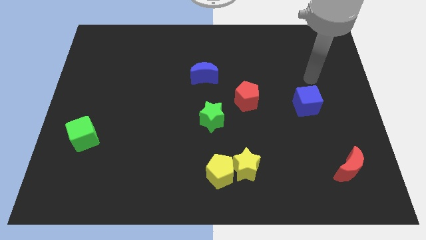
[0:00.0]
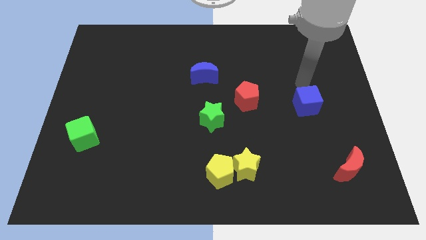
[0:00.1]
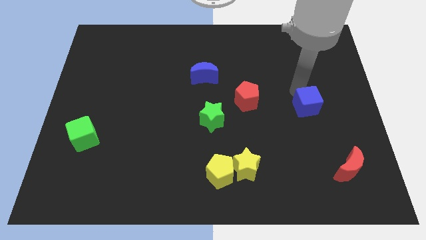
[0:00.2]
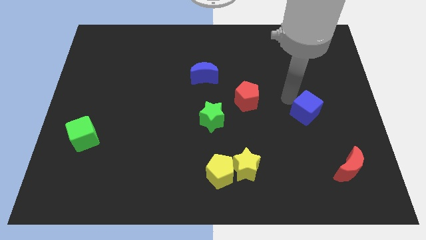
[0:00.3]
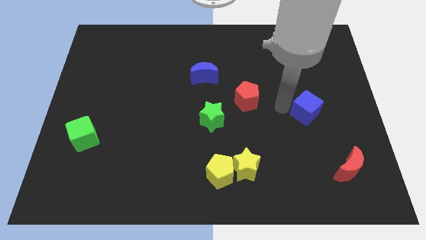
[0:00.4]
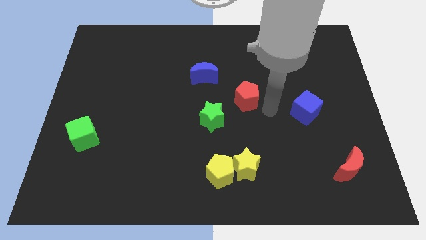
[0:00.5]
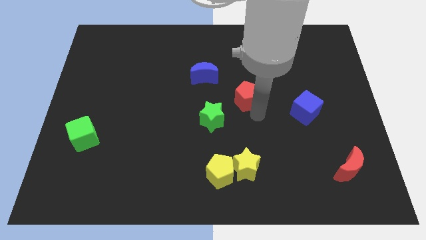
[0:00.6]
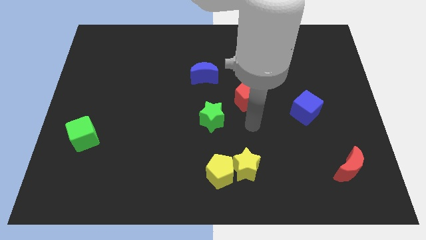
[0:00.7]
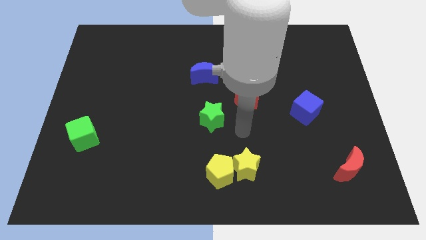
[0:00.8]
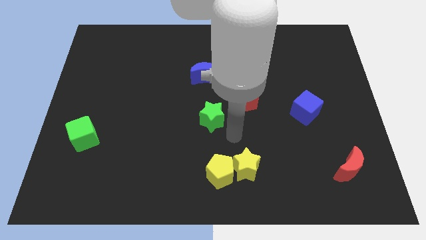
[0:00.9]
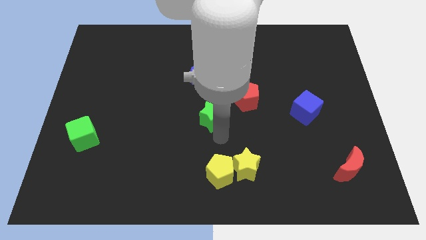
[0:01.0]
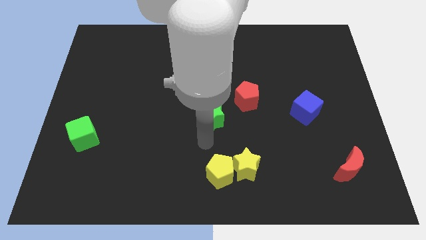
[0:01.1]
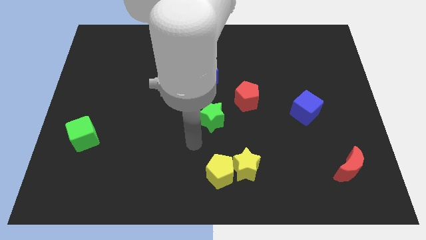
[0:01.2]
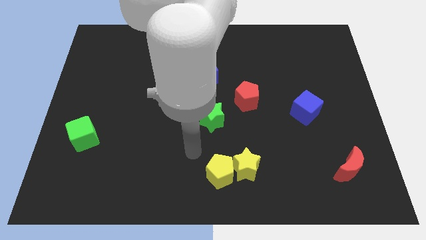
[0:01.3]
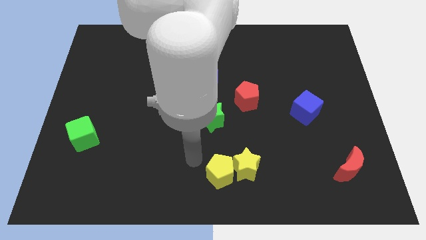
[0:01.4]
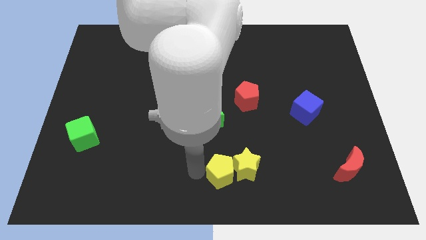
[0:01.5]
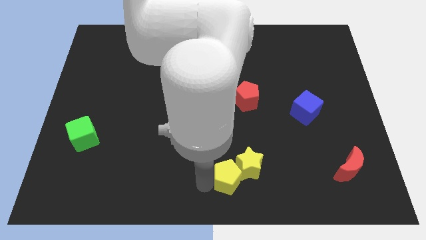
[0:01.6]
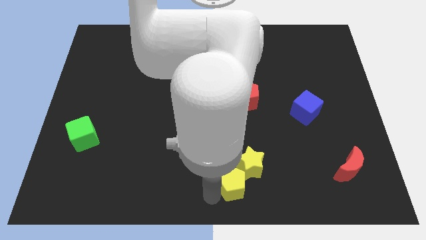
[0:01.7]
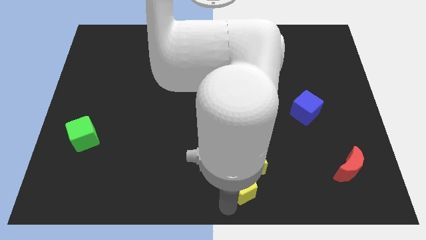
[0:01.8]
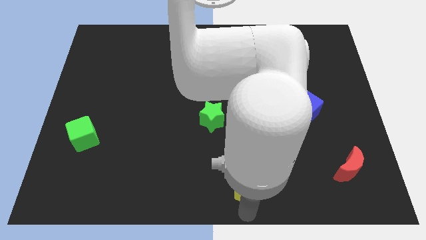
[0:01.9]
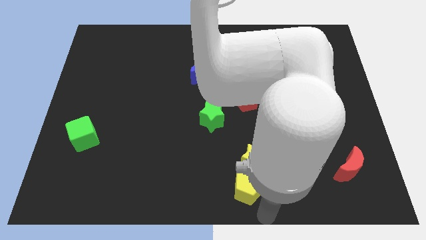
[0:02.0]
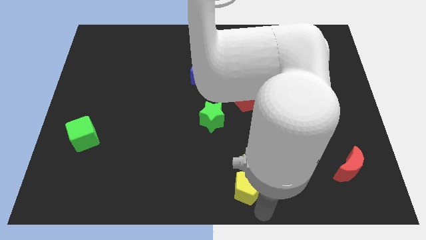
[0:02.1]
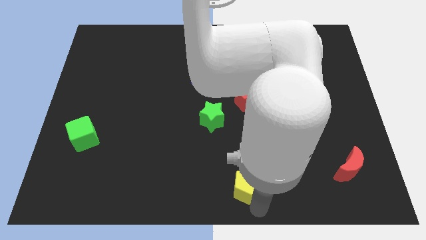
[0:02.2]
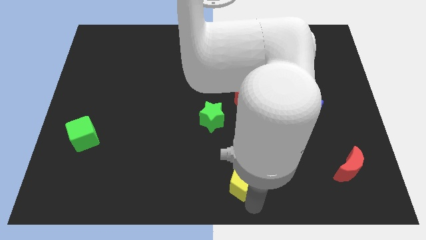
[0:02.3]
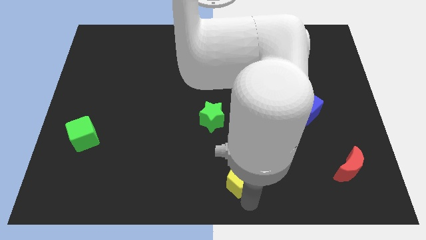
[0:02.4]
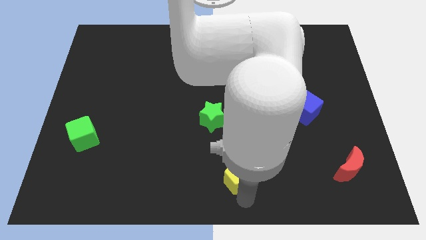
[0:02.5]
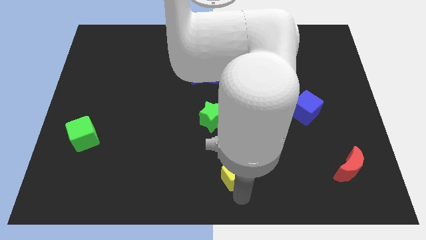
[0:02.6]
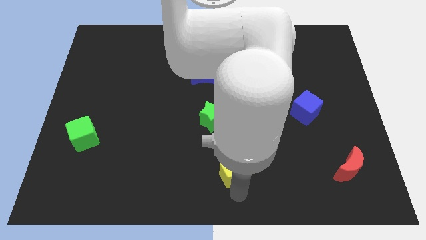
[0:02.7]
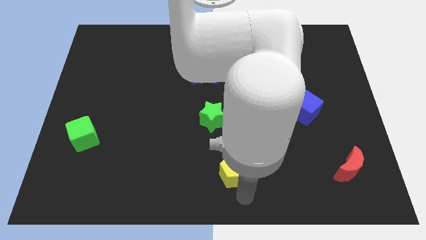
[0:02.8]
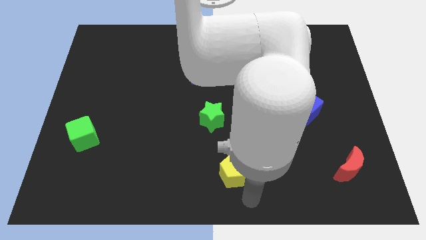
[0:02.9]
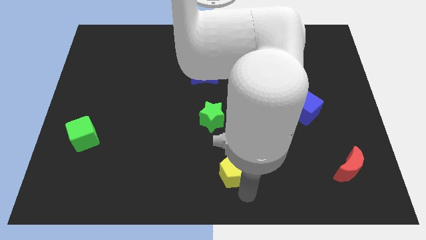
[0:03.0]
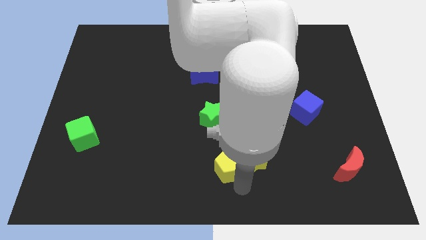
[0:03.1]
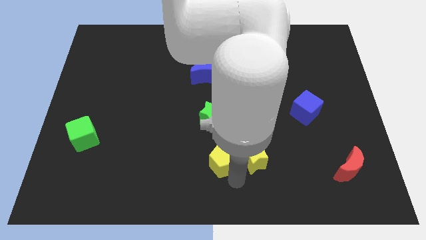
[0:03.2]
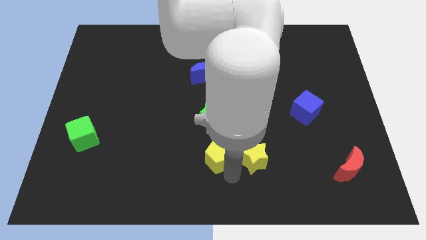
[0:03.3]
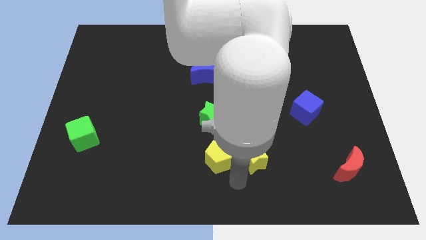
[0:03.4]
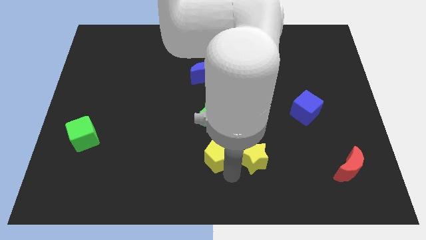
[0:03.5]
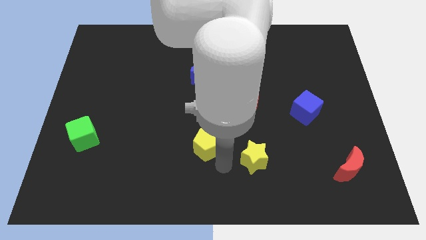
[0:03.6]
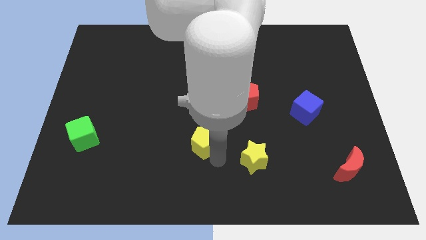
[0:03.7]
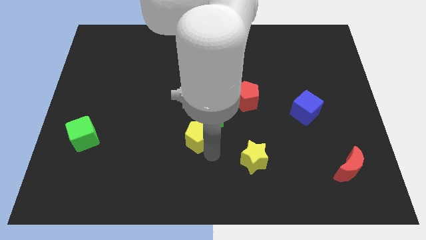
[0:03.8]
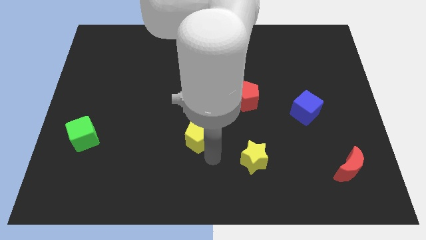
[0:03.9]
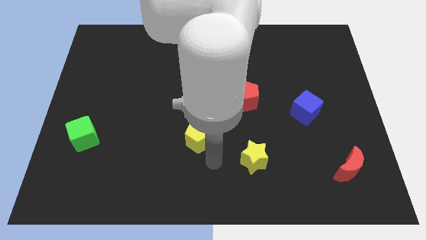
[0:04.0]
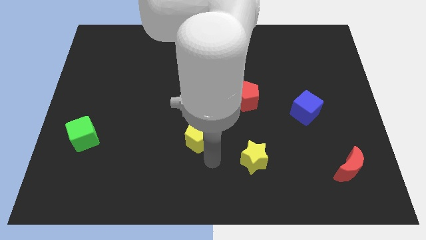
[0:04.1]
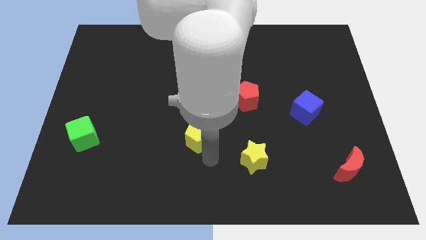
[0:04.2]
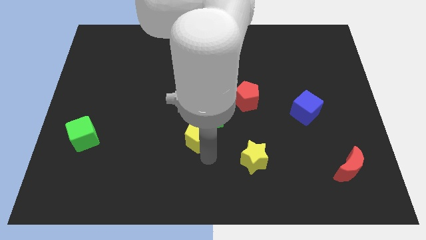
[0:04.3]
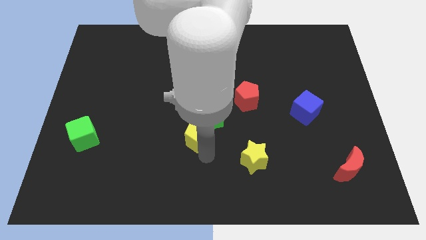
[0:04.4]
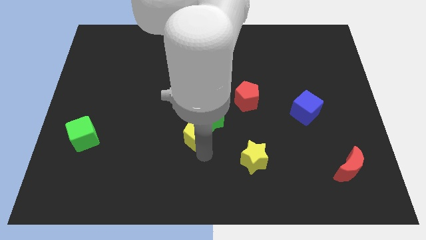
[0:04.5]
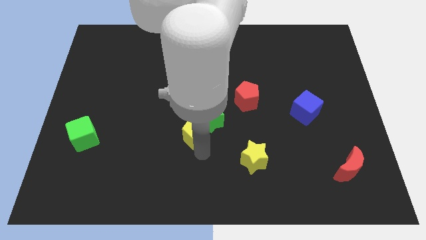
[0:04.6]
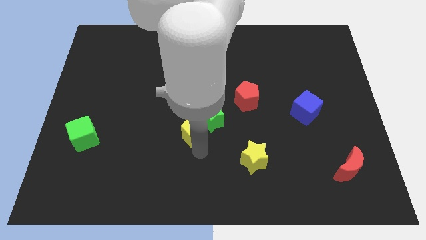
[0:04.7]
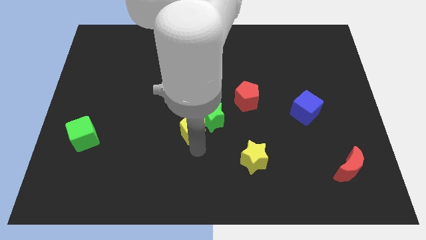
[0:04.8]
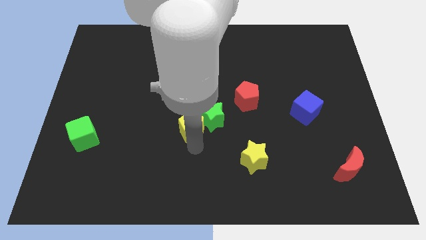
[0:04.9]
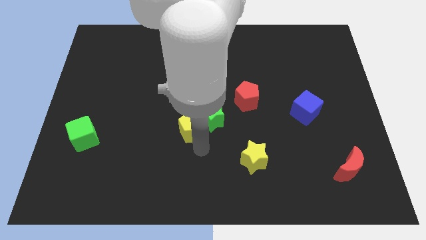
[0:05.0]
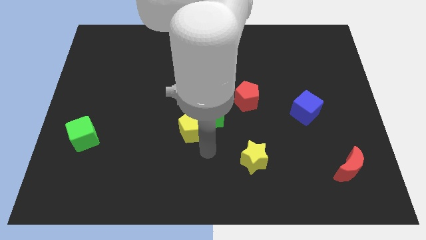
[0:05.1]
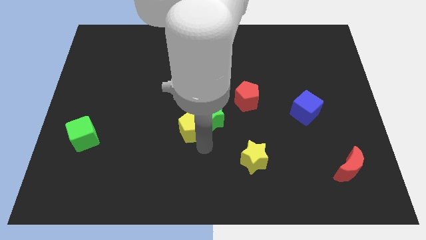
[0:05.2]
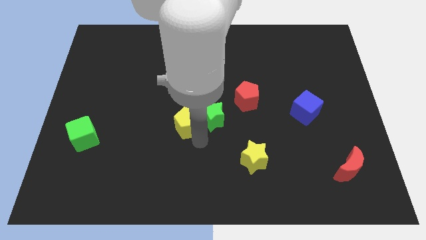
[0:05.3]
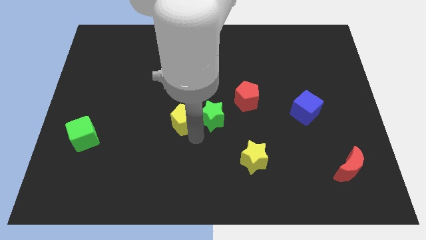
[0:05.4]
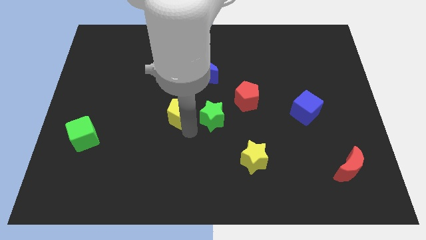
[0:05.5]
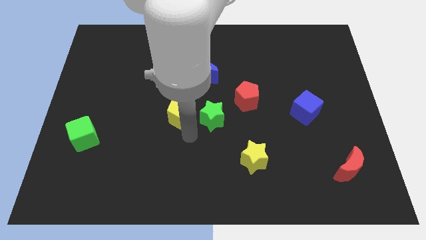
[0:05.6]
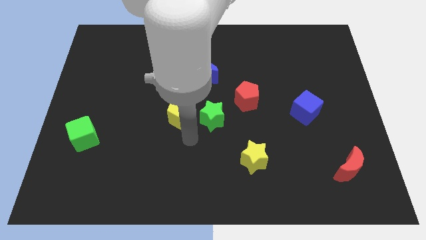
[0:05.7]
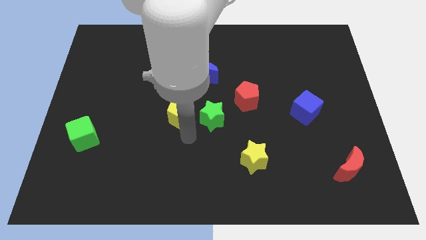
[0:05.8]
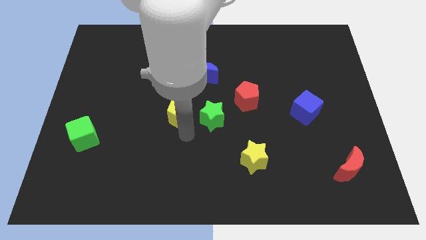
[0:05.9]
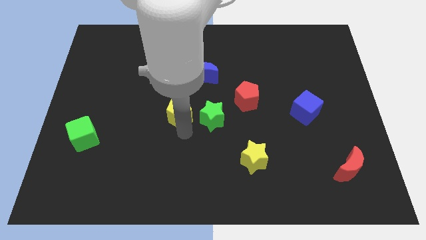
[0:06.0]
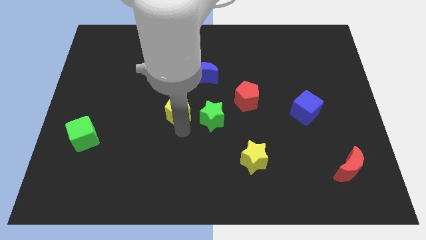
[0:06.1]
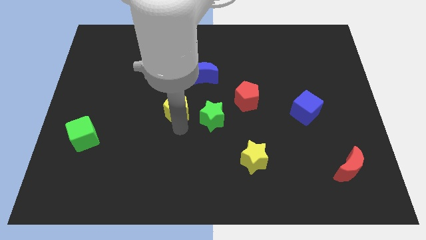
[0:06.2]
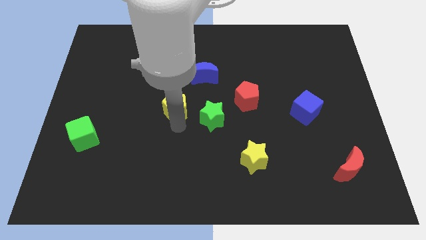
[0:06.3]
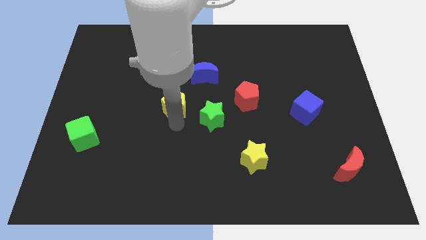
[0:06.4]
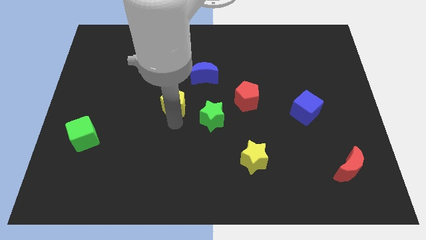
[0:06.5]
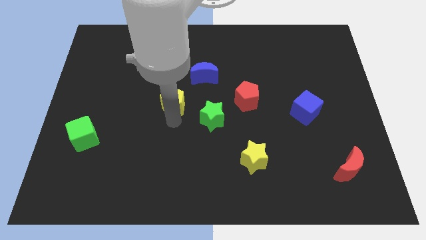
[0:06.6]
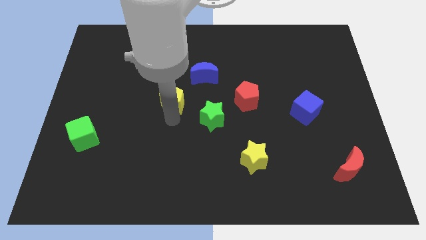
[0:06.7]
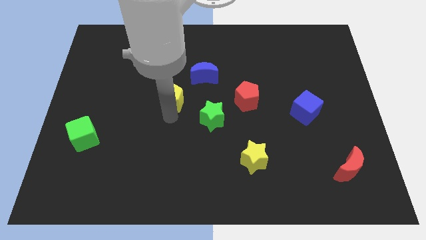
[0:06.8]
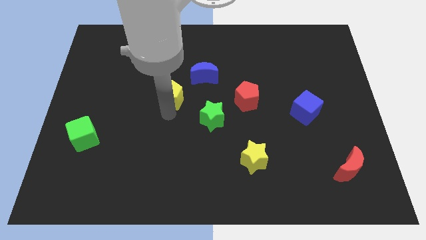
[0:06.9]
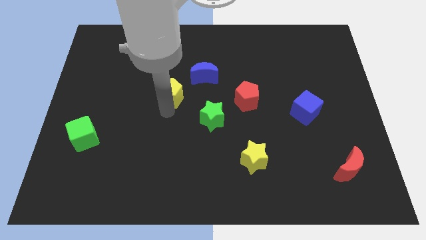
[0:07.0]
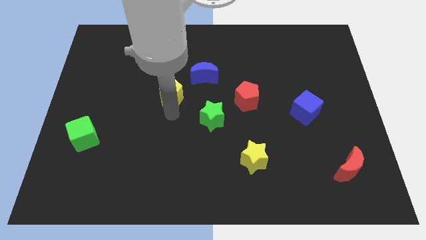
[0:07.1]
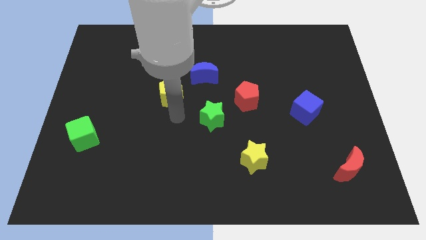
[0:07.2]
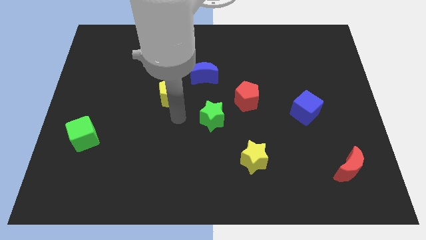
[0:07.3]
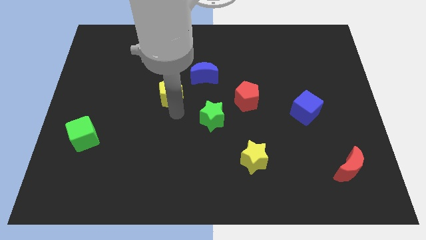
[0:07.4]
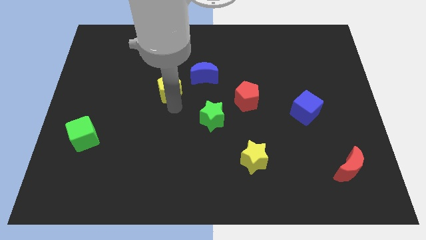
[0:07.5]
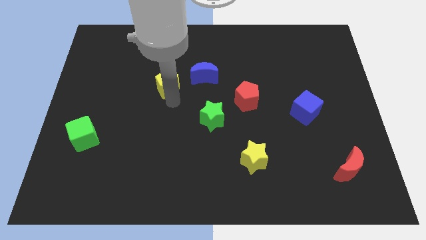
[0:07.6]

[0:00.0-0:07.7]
move the yellow pentagon to the left side of the blue moon
